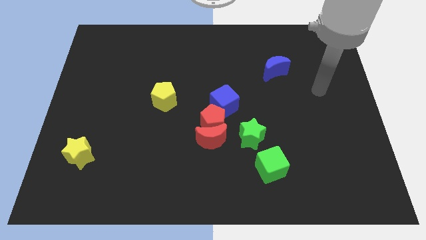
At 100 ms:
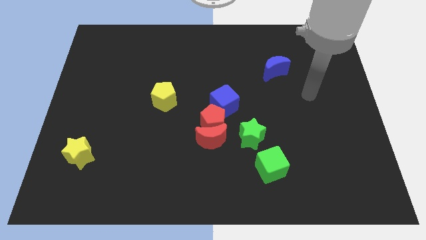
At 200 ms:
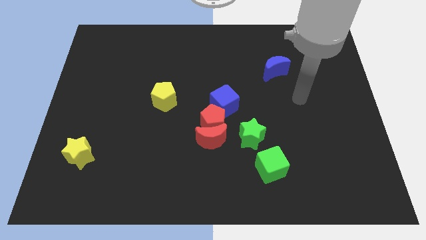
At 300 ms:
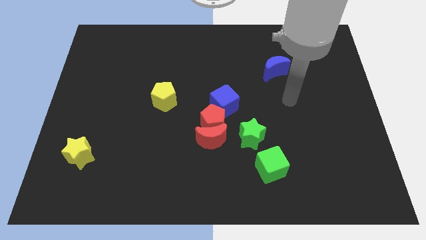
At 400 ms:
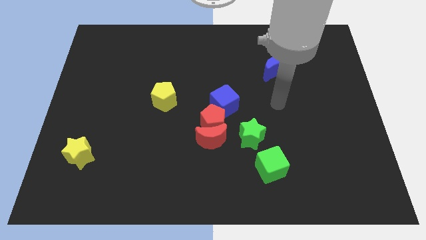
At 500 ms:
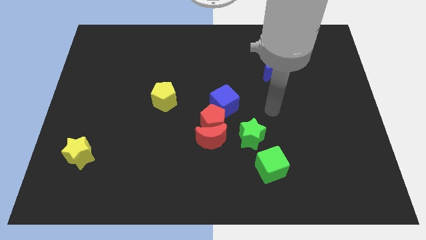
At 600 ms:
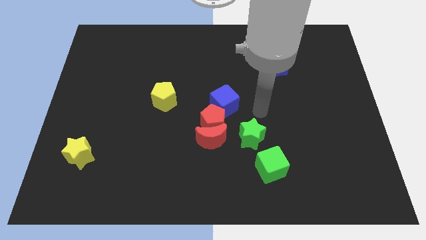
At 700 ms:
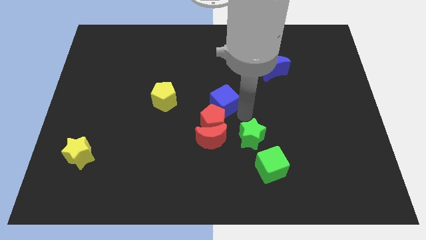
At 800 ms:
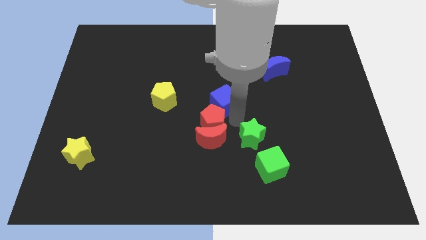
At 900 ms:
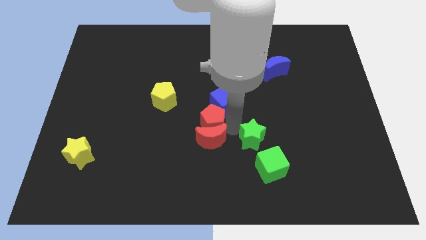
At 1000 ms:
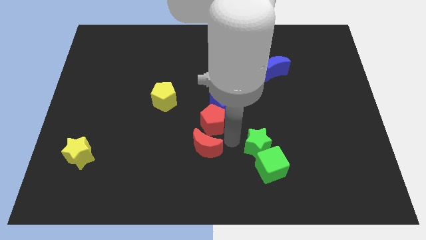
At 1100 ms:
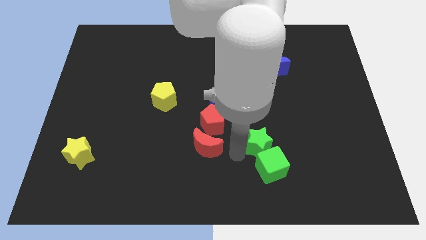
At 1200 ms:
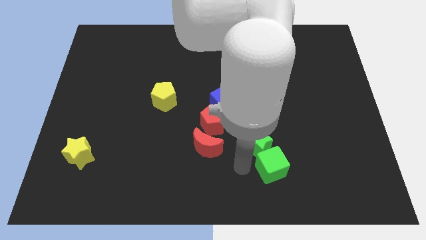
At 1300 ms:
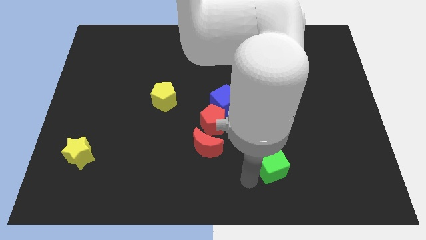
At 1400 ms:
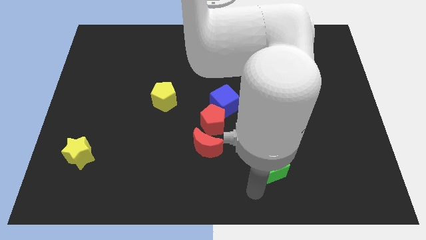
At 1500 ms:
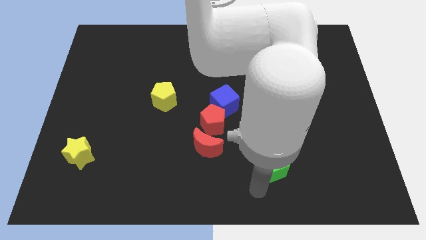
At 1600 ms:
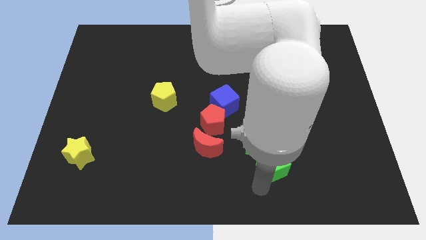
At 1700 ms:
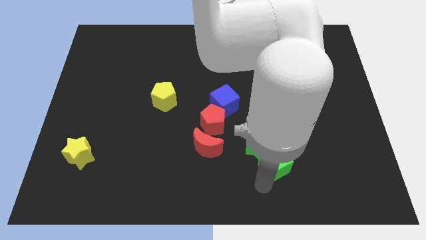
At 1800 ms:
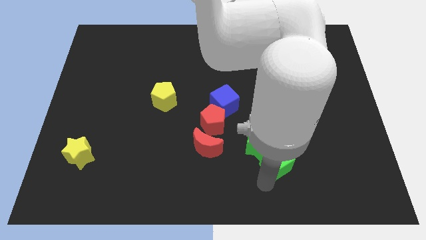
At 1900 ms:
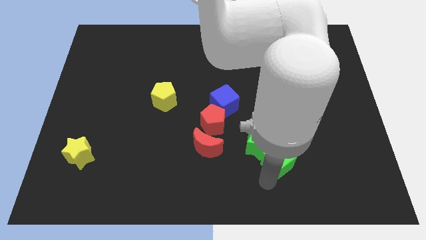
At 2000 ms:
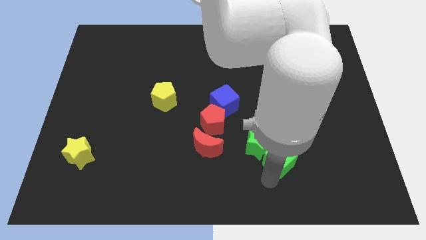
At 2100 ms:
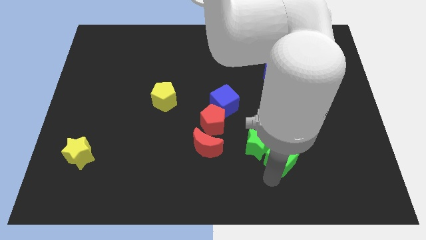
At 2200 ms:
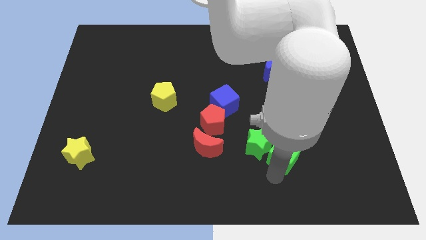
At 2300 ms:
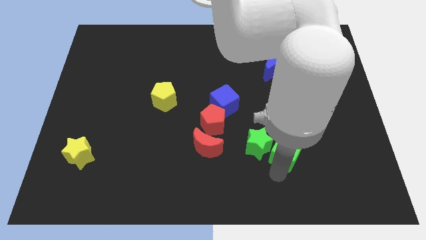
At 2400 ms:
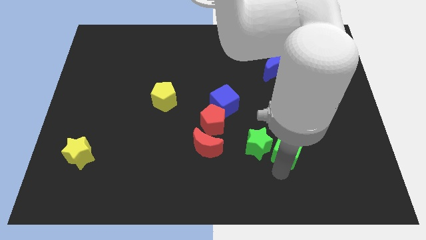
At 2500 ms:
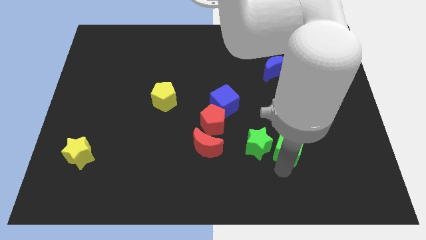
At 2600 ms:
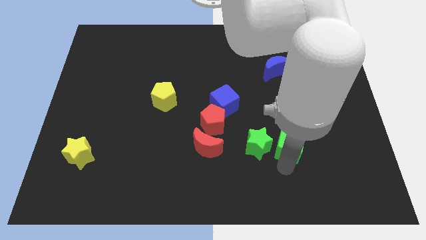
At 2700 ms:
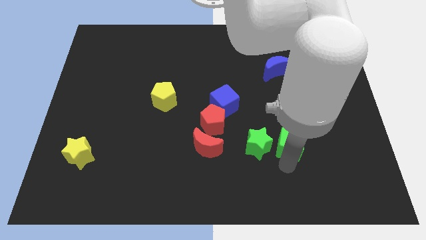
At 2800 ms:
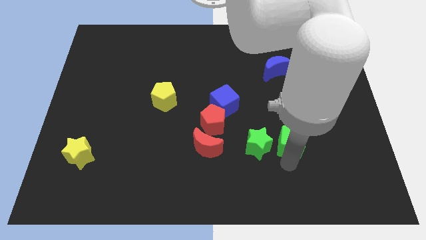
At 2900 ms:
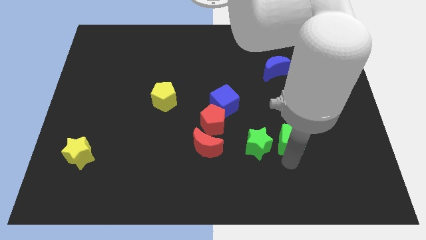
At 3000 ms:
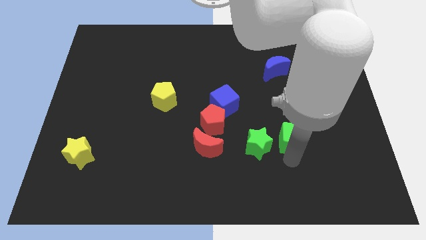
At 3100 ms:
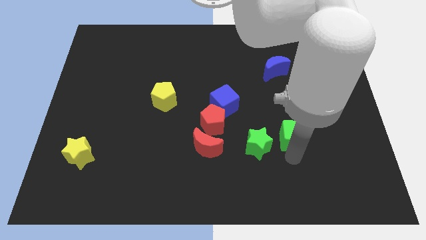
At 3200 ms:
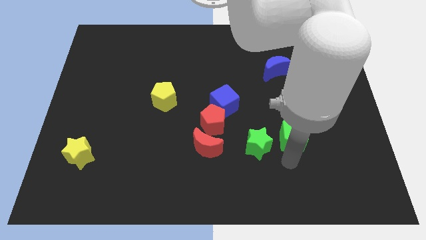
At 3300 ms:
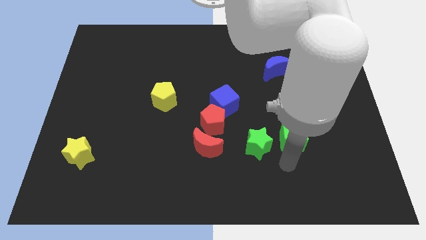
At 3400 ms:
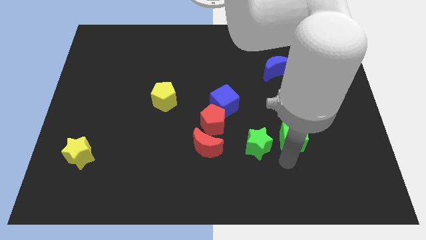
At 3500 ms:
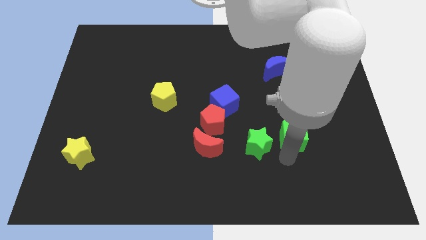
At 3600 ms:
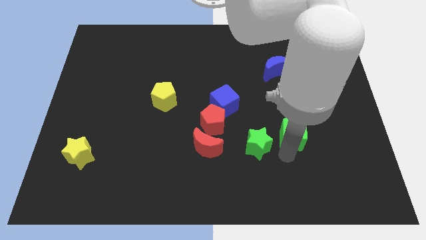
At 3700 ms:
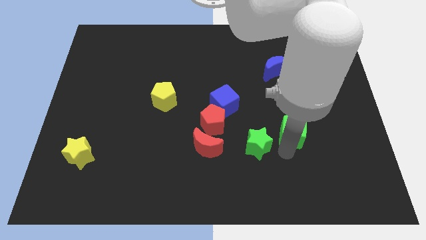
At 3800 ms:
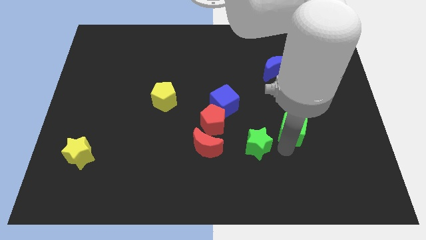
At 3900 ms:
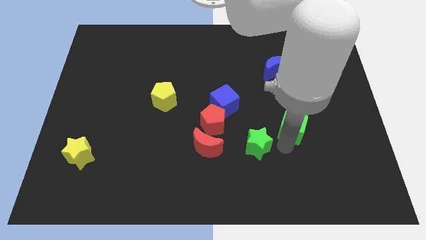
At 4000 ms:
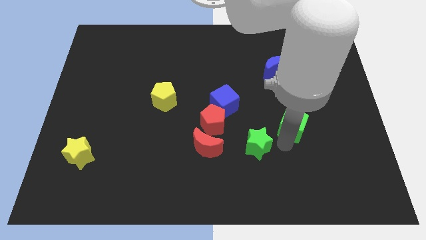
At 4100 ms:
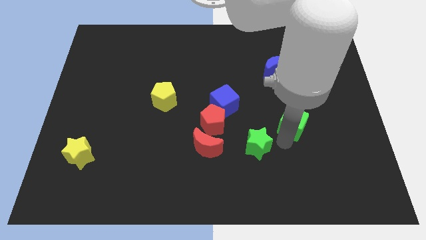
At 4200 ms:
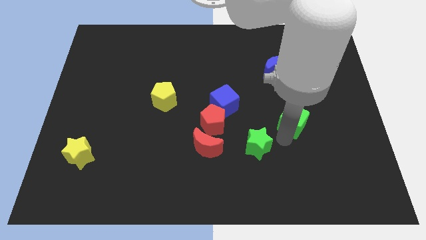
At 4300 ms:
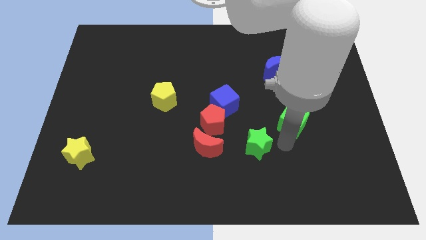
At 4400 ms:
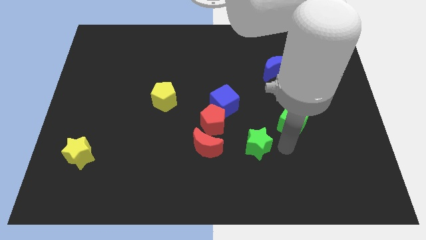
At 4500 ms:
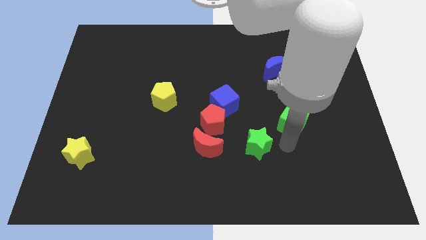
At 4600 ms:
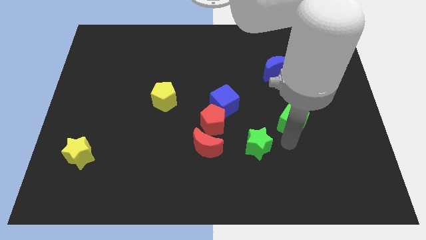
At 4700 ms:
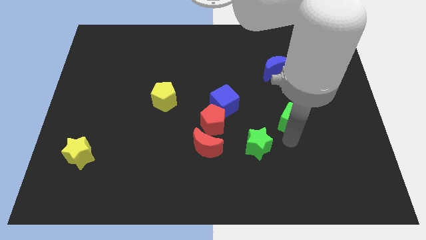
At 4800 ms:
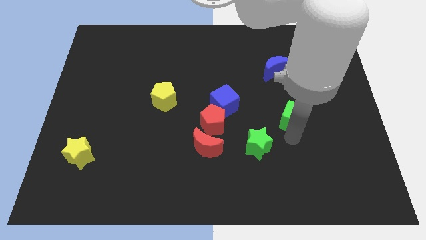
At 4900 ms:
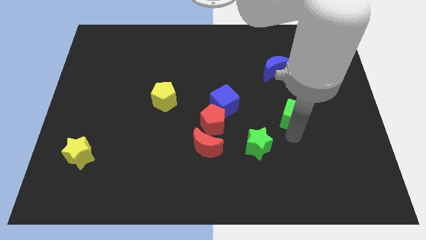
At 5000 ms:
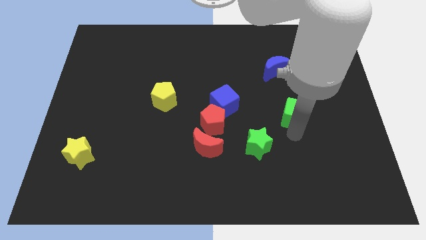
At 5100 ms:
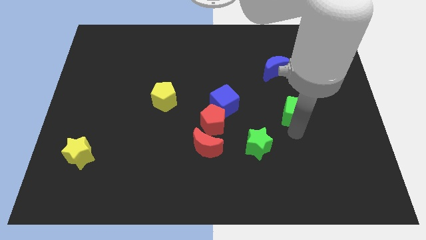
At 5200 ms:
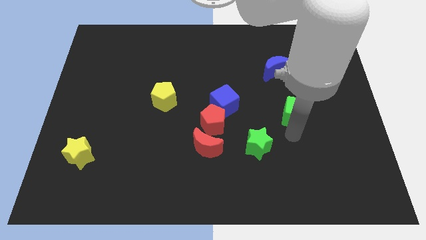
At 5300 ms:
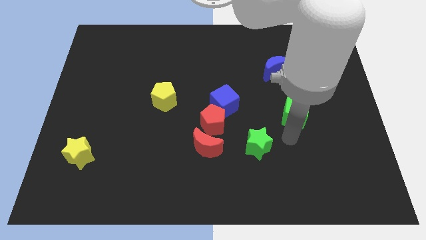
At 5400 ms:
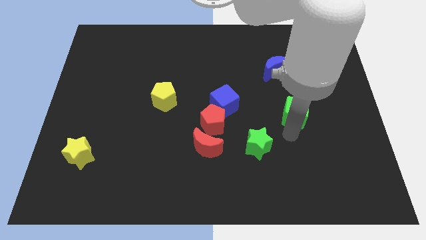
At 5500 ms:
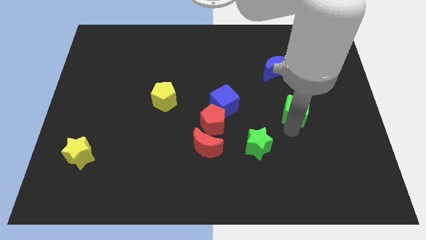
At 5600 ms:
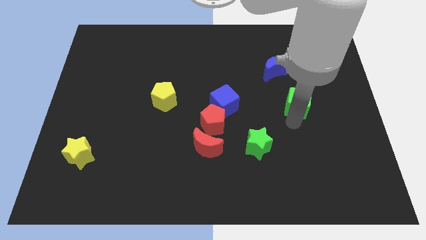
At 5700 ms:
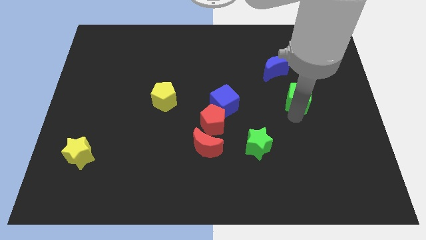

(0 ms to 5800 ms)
slide the green cube to the bottom right side of the blue moon

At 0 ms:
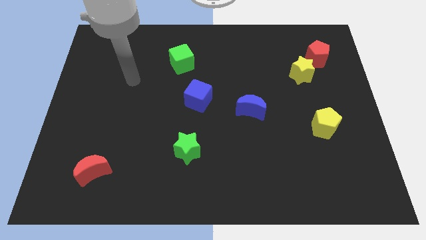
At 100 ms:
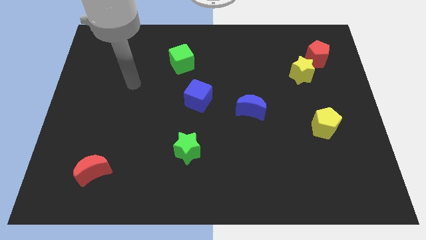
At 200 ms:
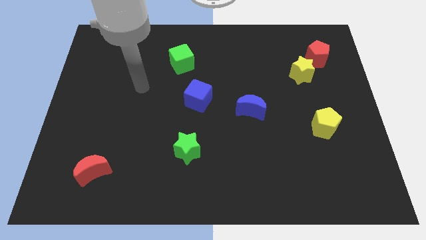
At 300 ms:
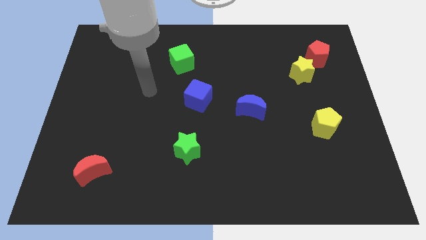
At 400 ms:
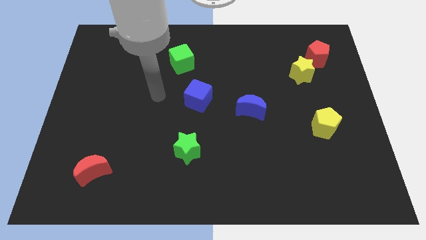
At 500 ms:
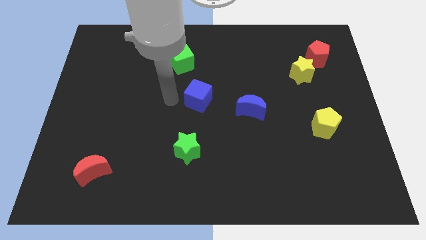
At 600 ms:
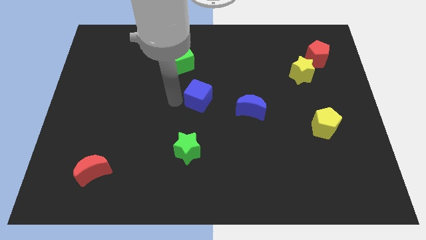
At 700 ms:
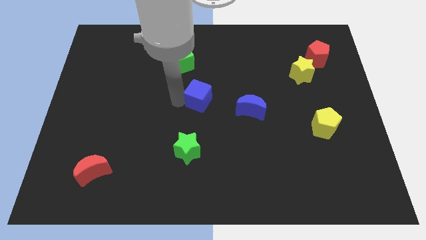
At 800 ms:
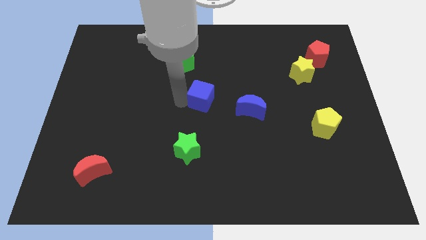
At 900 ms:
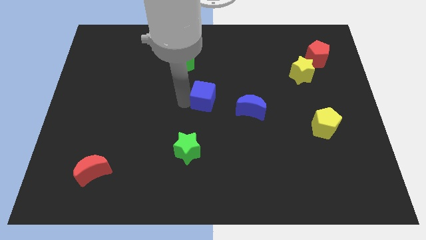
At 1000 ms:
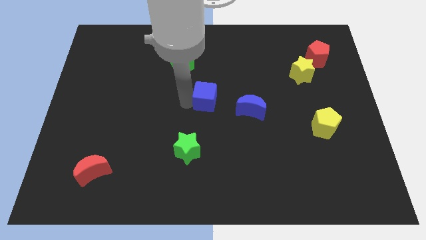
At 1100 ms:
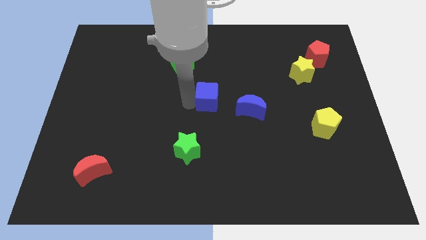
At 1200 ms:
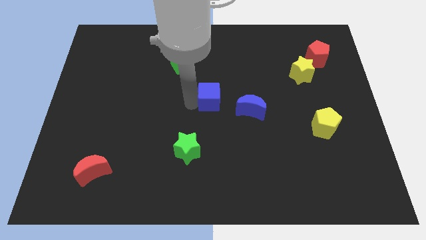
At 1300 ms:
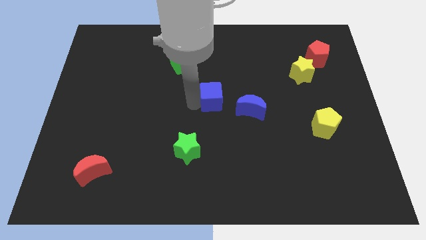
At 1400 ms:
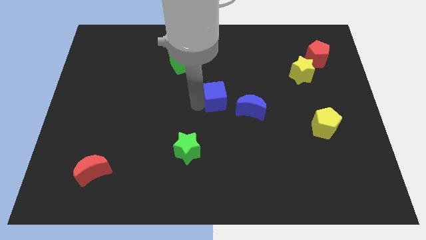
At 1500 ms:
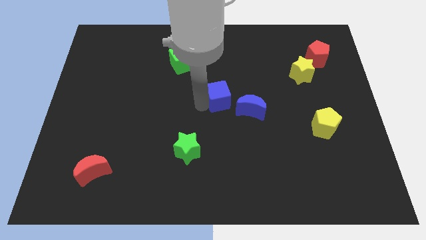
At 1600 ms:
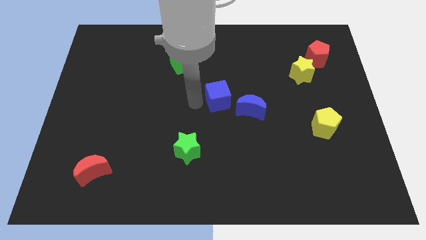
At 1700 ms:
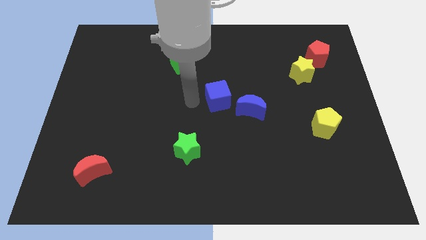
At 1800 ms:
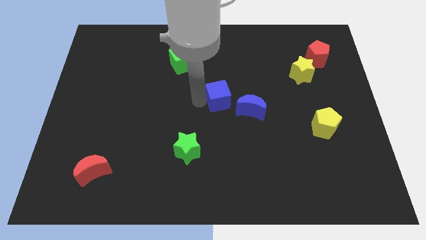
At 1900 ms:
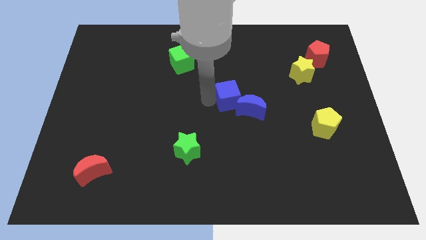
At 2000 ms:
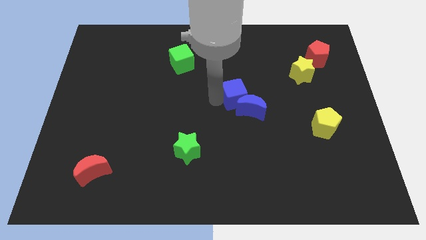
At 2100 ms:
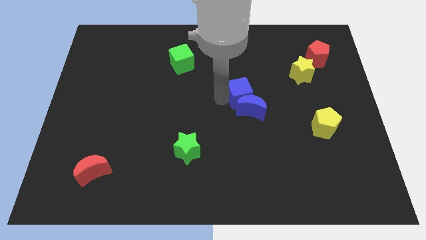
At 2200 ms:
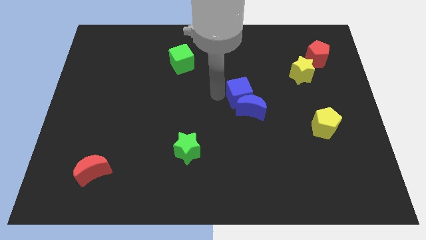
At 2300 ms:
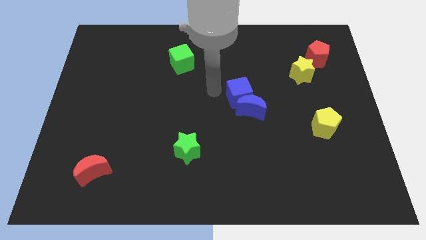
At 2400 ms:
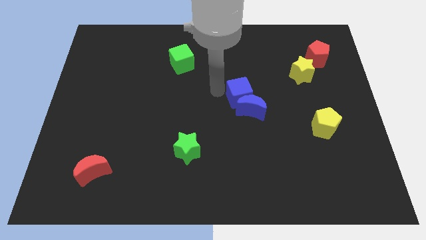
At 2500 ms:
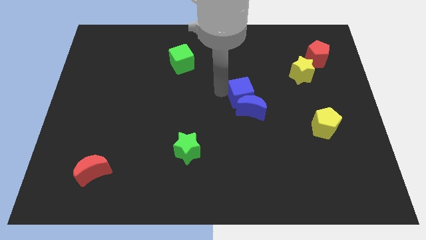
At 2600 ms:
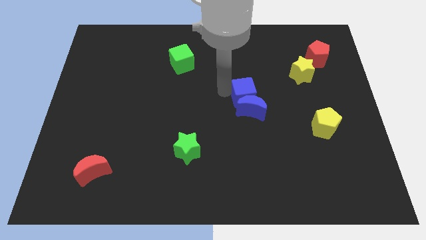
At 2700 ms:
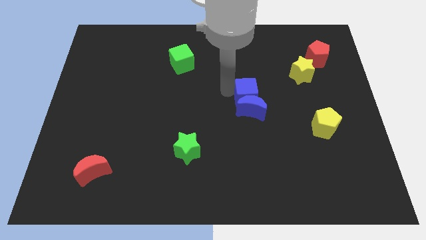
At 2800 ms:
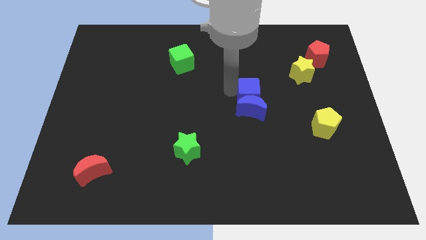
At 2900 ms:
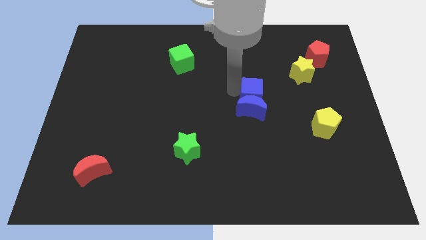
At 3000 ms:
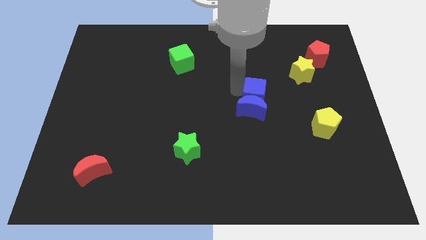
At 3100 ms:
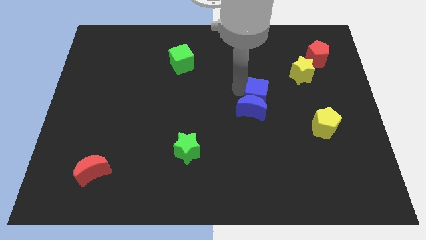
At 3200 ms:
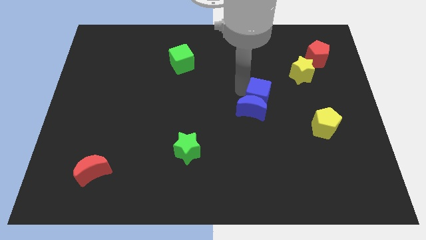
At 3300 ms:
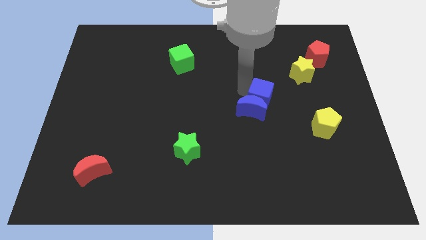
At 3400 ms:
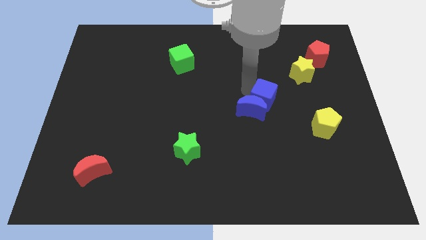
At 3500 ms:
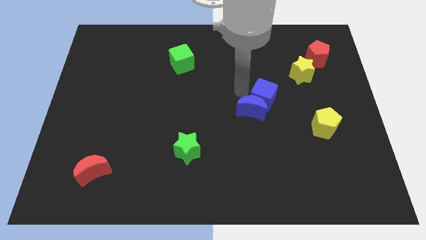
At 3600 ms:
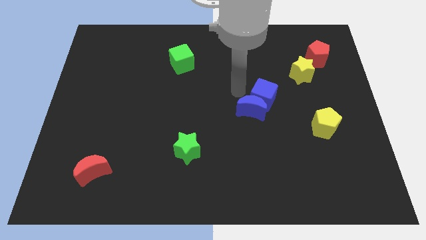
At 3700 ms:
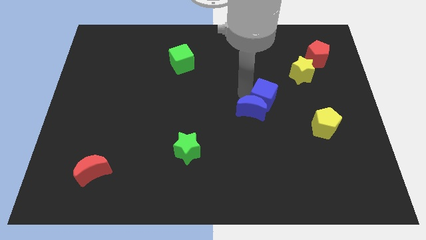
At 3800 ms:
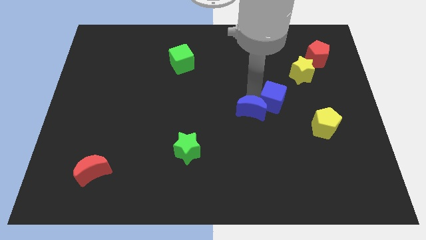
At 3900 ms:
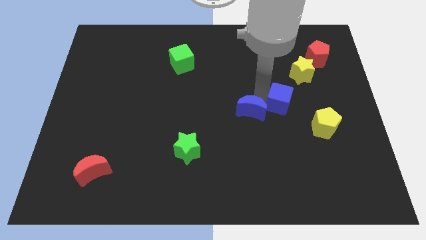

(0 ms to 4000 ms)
push the blue cube to the top left side of the yellow pentagon
